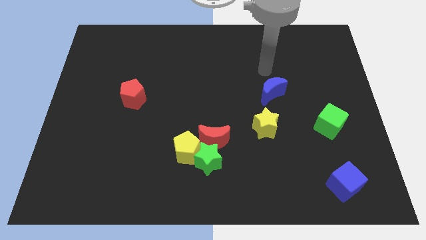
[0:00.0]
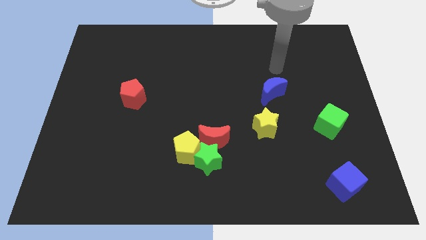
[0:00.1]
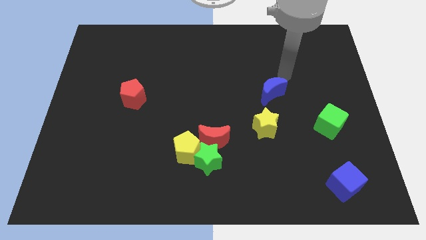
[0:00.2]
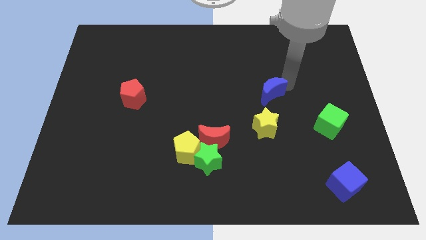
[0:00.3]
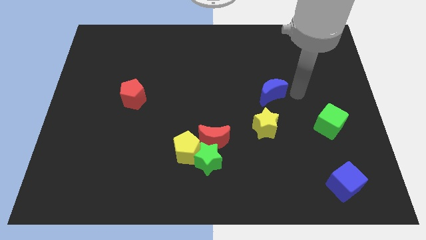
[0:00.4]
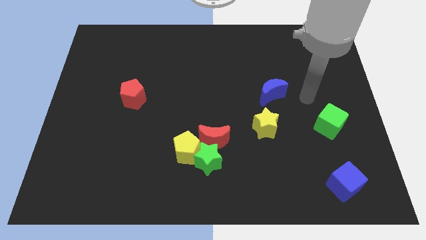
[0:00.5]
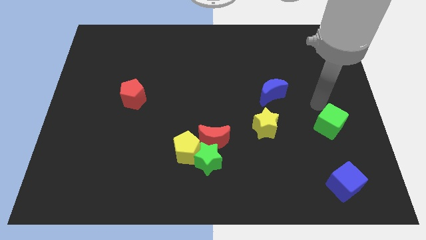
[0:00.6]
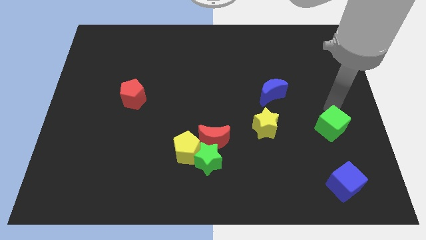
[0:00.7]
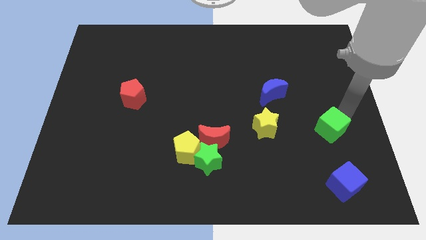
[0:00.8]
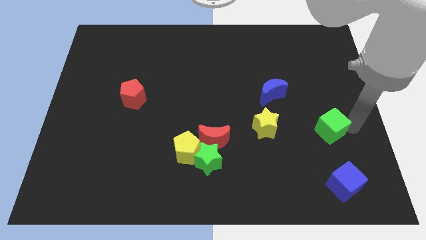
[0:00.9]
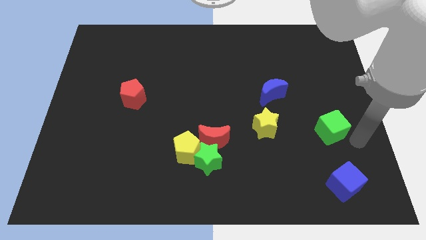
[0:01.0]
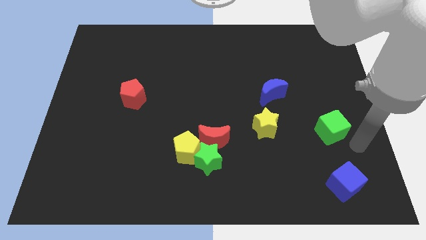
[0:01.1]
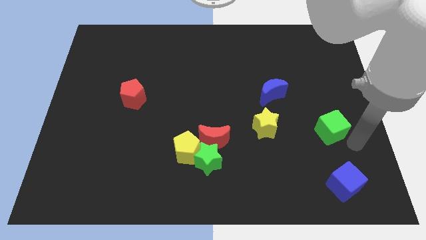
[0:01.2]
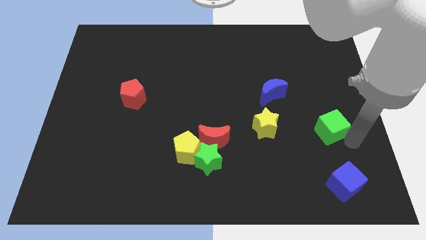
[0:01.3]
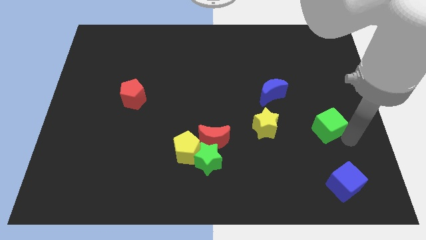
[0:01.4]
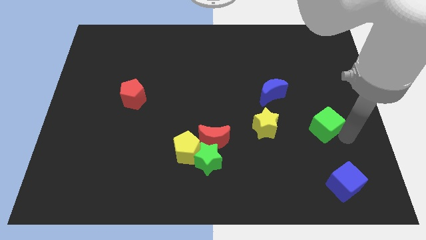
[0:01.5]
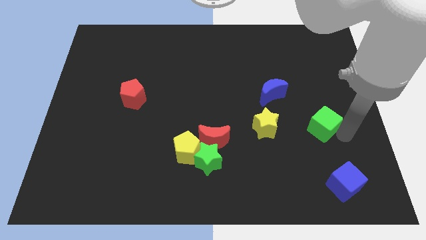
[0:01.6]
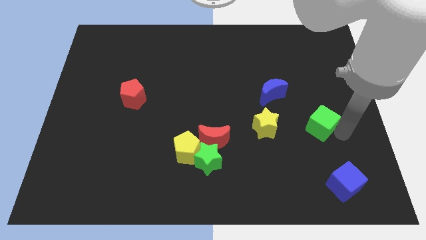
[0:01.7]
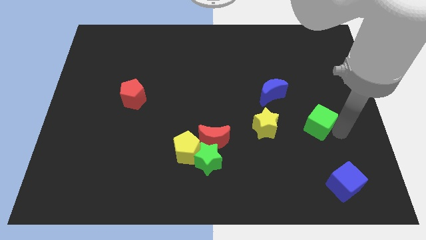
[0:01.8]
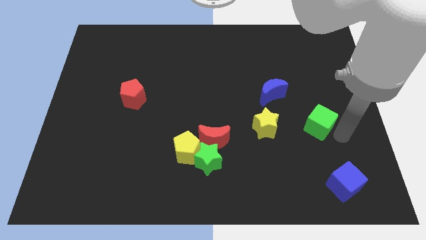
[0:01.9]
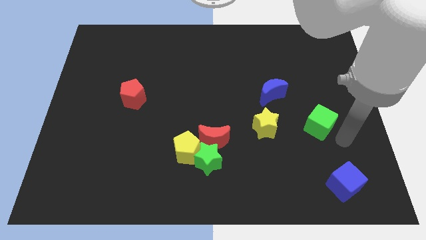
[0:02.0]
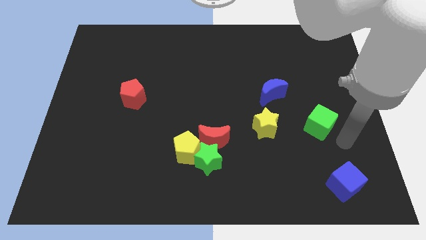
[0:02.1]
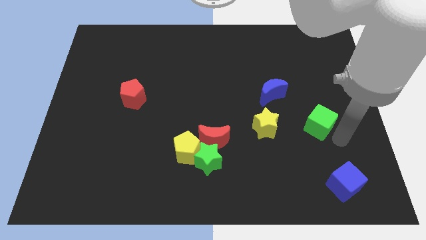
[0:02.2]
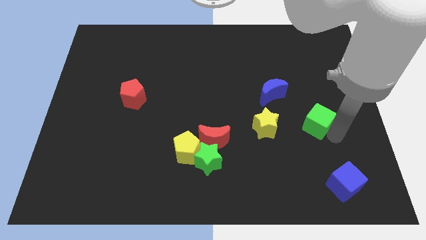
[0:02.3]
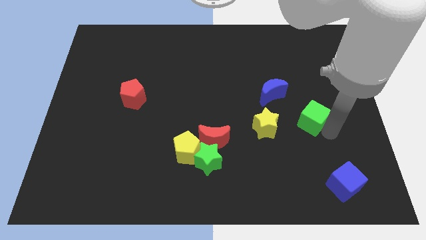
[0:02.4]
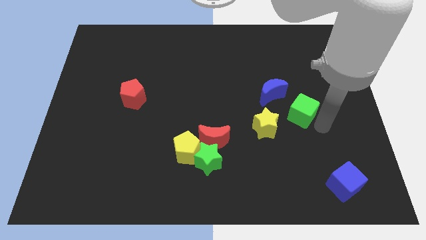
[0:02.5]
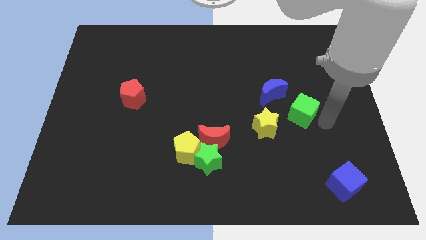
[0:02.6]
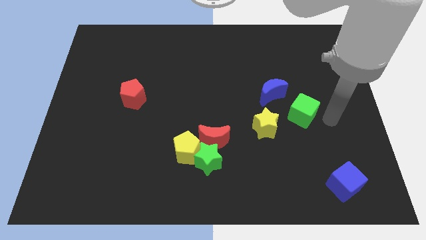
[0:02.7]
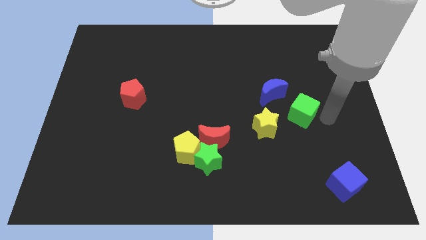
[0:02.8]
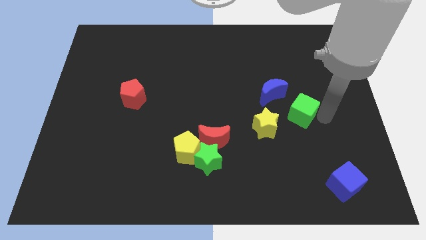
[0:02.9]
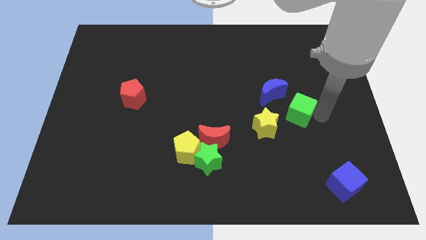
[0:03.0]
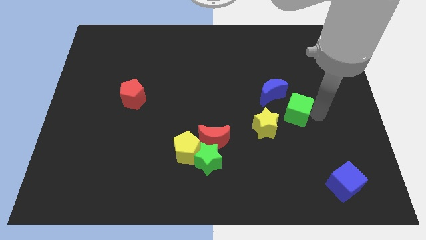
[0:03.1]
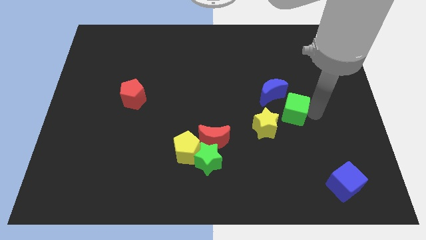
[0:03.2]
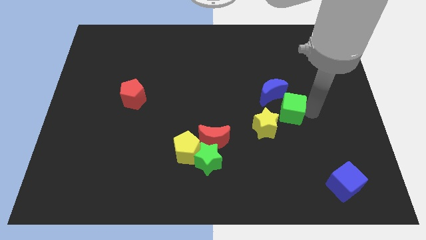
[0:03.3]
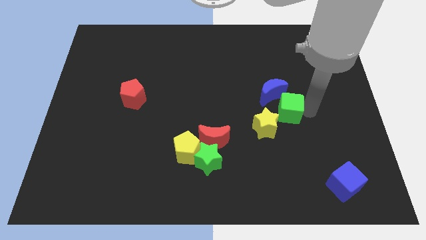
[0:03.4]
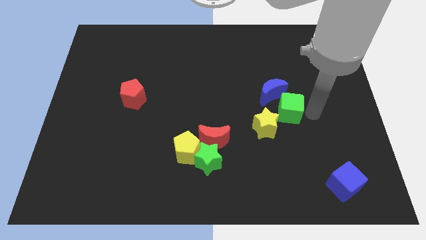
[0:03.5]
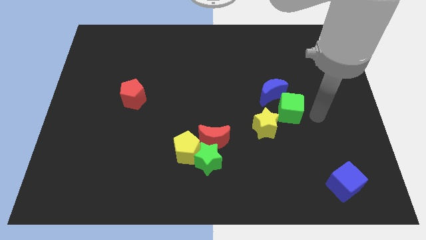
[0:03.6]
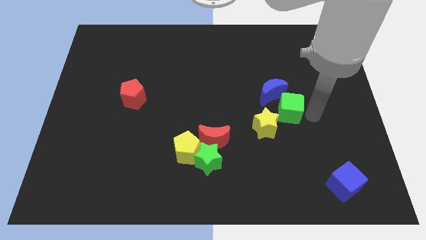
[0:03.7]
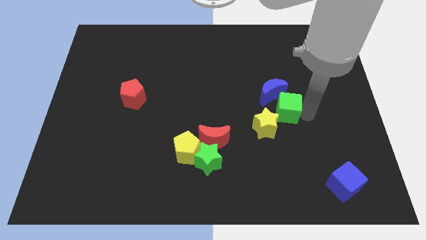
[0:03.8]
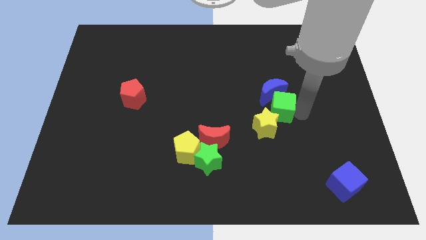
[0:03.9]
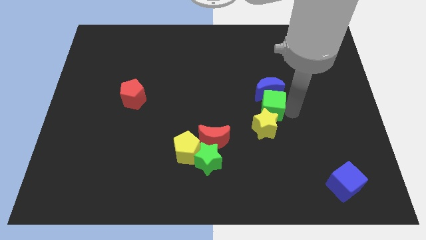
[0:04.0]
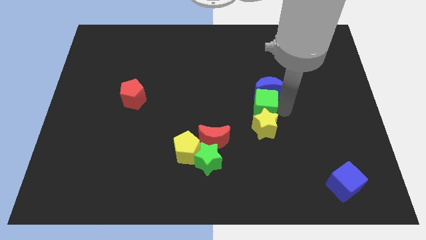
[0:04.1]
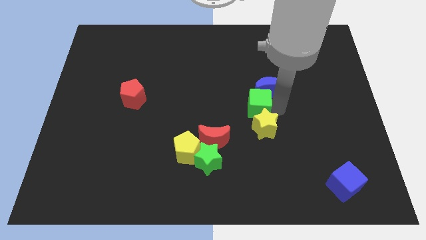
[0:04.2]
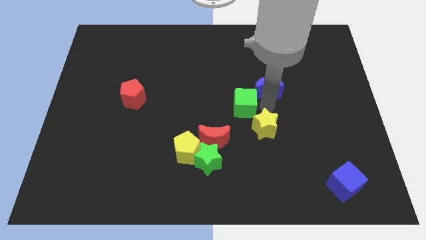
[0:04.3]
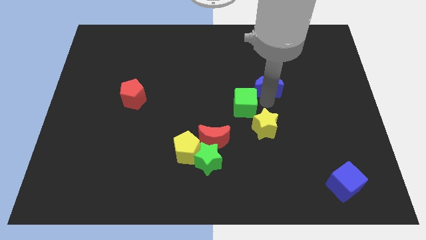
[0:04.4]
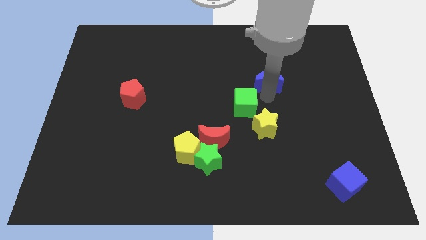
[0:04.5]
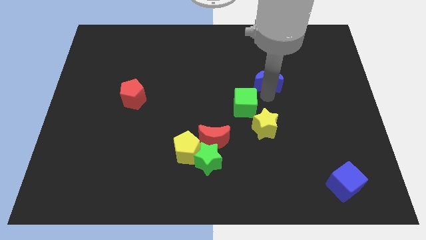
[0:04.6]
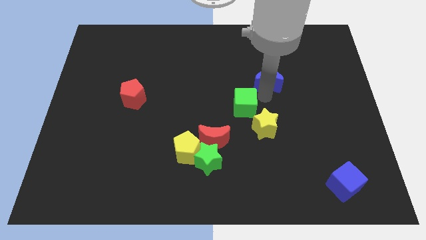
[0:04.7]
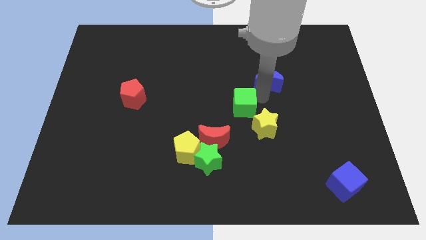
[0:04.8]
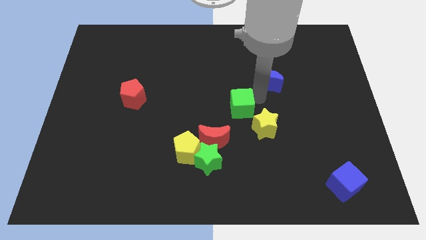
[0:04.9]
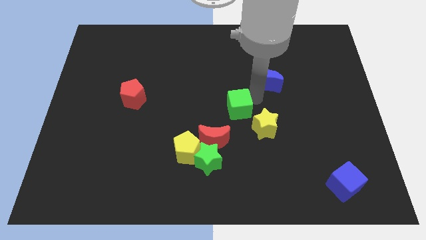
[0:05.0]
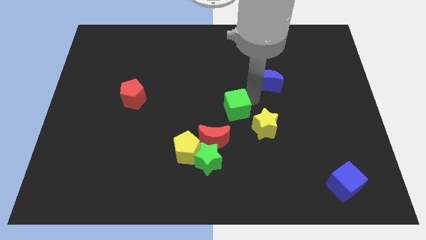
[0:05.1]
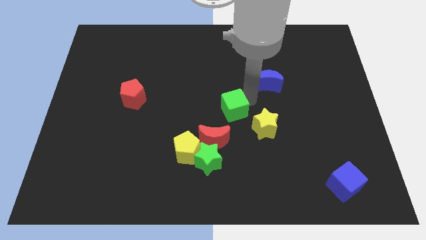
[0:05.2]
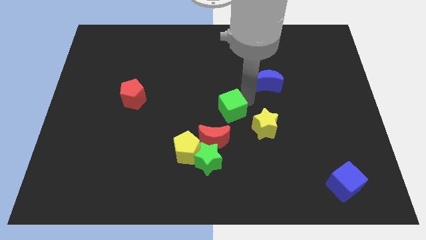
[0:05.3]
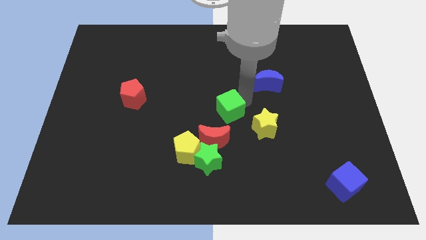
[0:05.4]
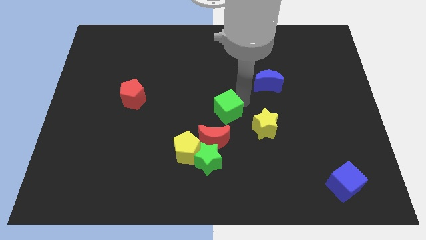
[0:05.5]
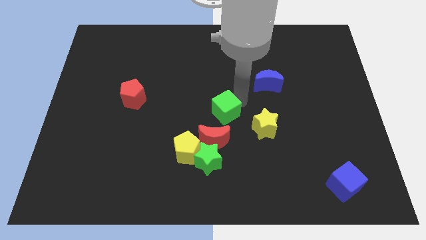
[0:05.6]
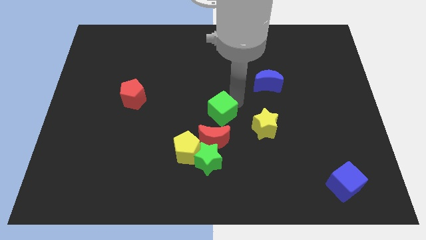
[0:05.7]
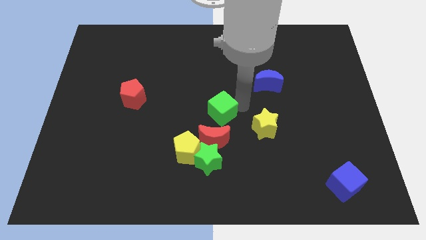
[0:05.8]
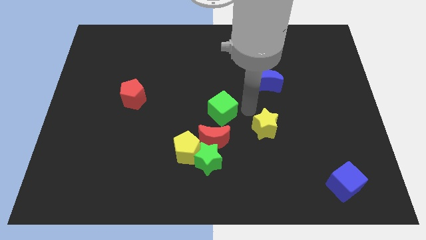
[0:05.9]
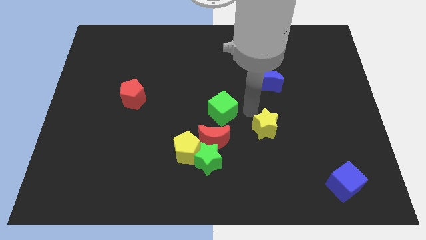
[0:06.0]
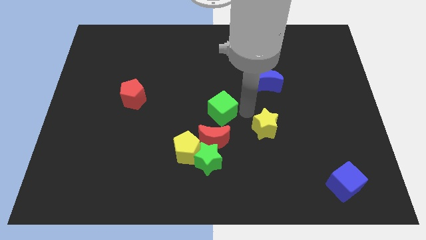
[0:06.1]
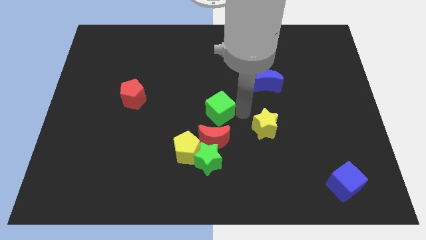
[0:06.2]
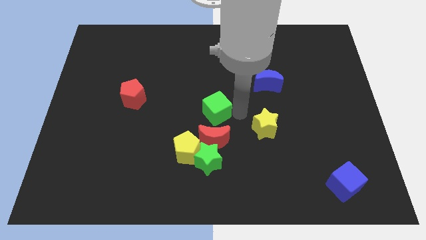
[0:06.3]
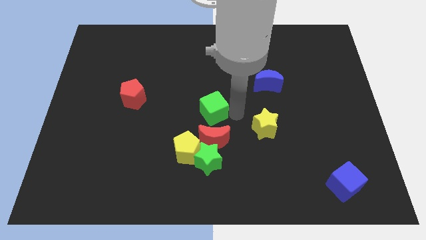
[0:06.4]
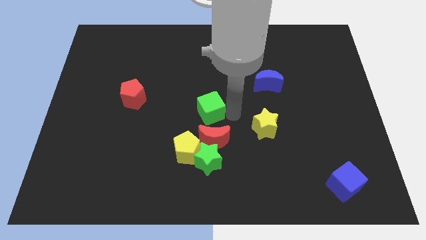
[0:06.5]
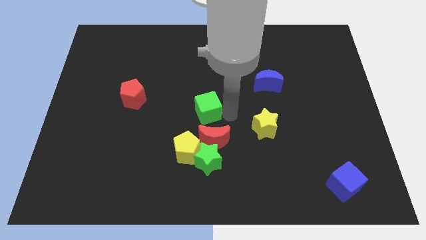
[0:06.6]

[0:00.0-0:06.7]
slide the green cube to the top of the yellow pentagon
